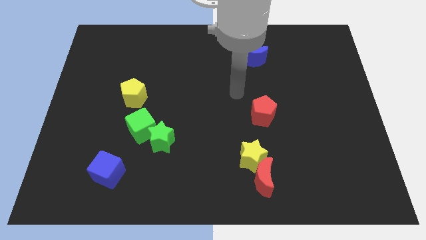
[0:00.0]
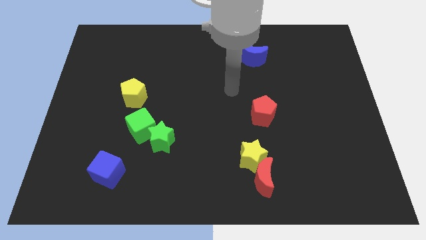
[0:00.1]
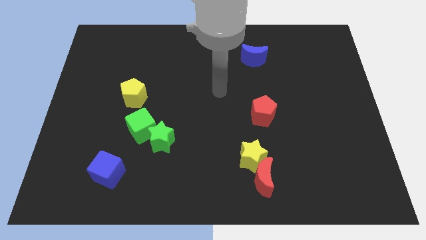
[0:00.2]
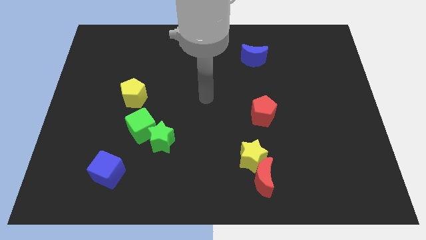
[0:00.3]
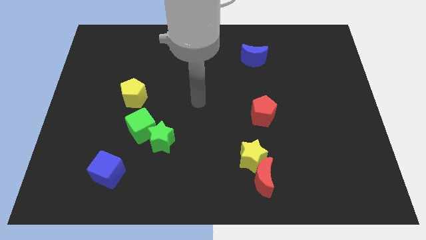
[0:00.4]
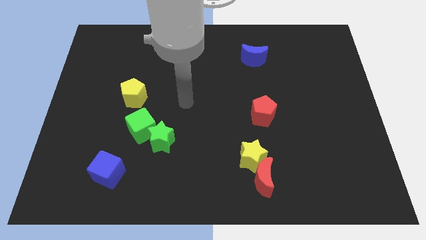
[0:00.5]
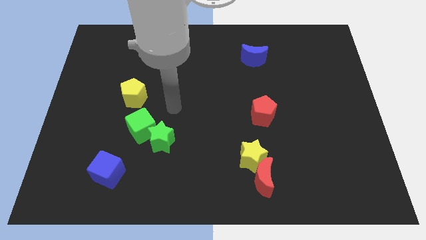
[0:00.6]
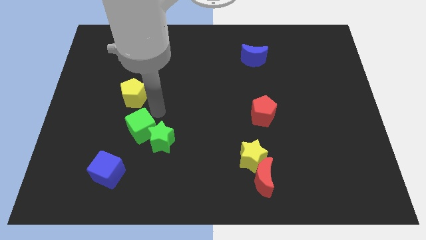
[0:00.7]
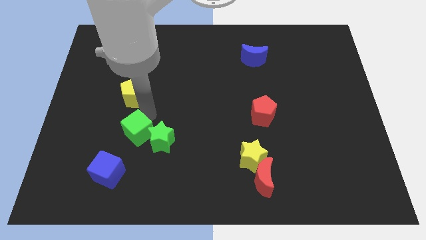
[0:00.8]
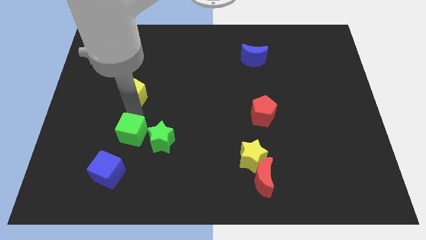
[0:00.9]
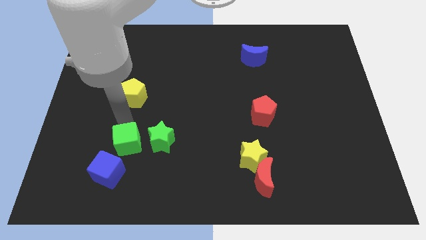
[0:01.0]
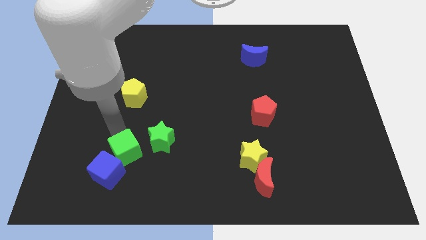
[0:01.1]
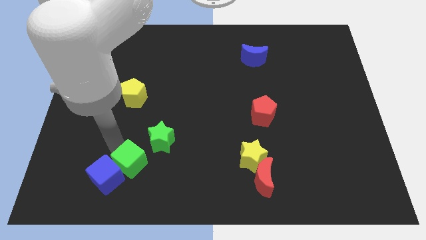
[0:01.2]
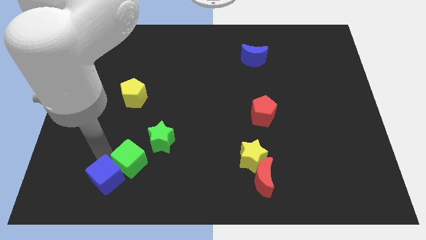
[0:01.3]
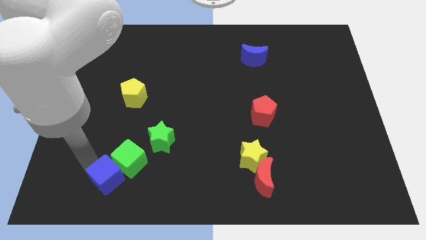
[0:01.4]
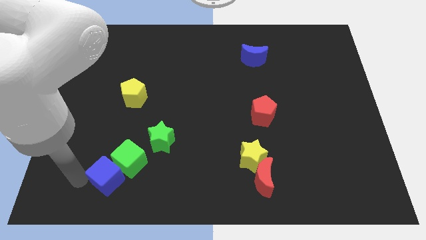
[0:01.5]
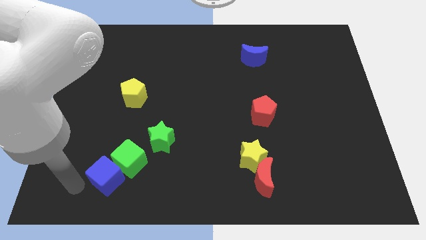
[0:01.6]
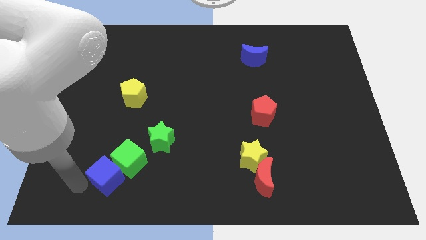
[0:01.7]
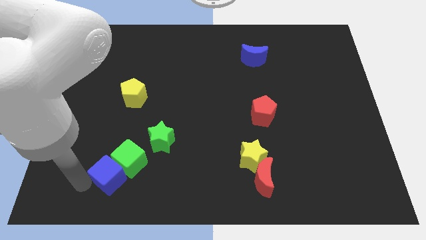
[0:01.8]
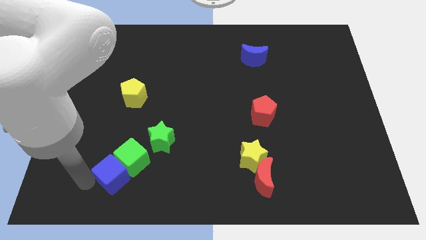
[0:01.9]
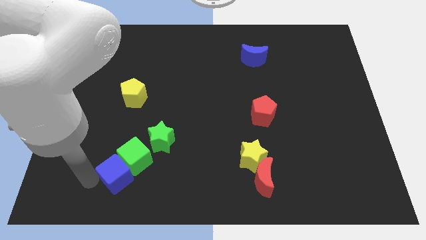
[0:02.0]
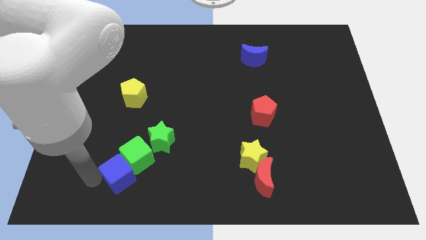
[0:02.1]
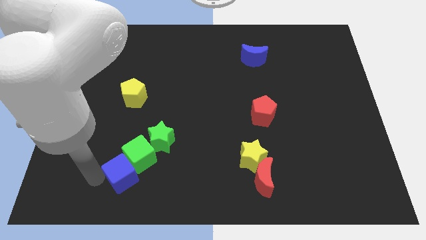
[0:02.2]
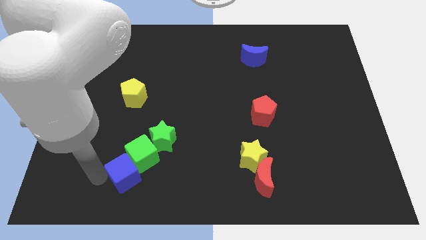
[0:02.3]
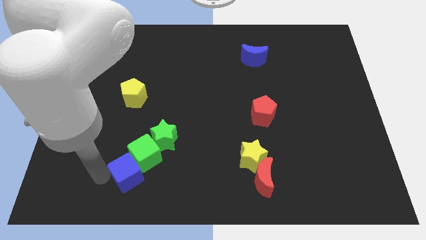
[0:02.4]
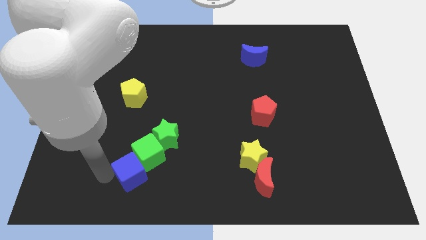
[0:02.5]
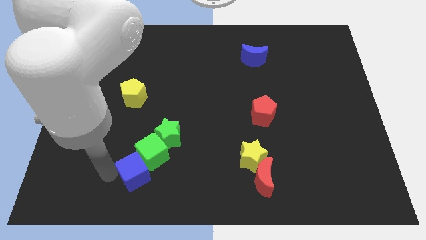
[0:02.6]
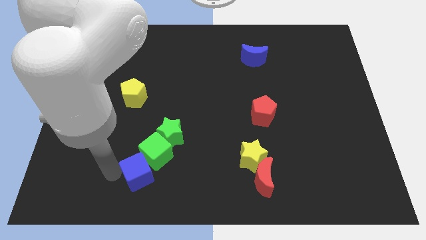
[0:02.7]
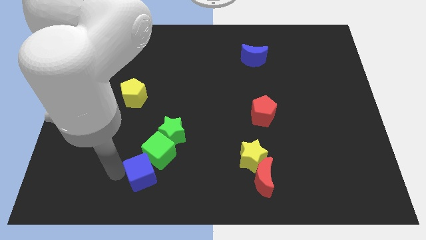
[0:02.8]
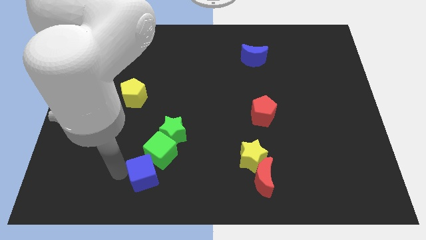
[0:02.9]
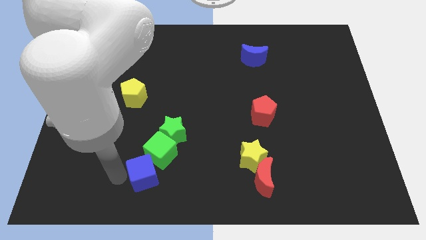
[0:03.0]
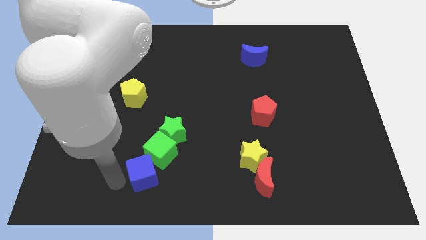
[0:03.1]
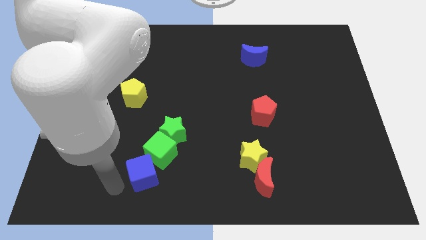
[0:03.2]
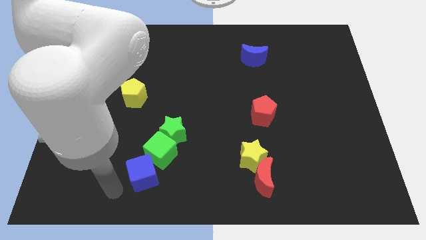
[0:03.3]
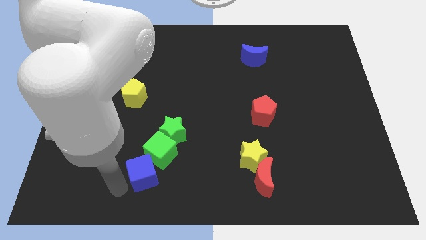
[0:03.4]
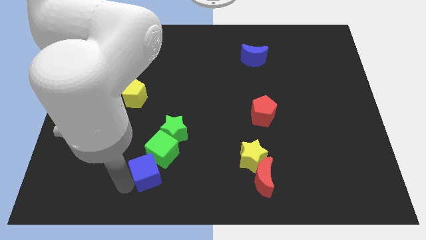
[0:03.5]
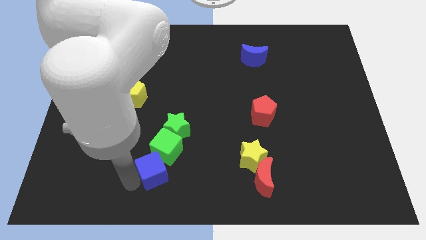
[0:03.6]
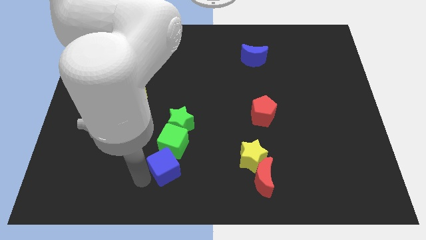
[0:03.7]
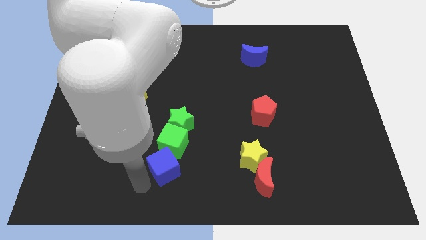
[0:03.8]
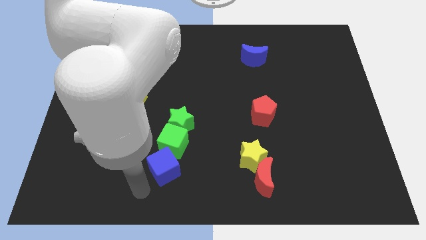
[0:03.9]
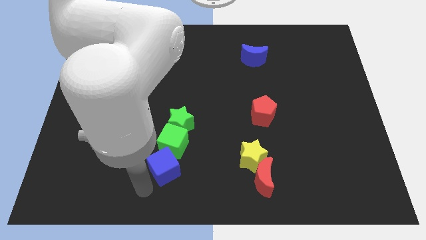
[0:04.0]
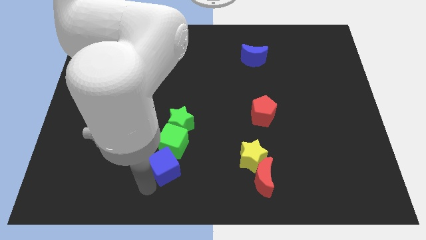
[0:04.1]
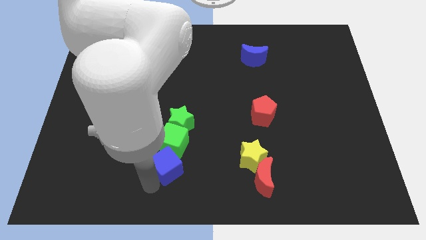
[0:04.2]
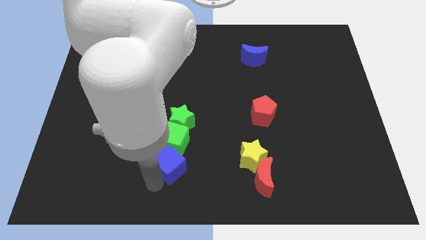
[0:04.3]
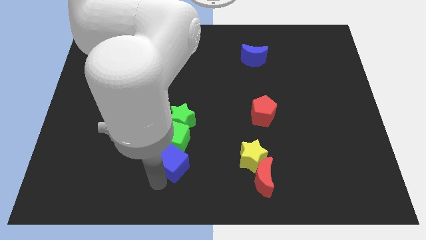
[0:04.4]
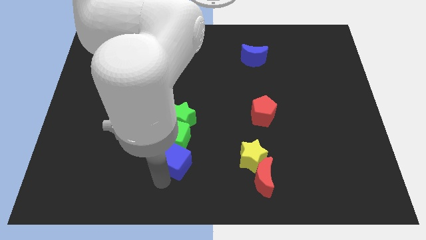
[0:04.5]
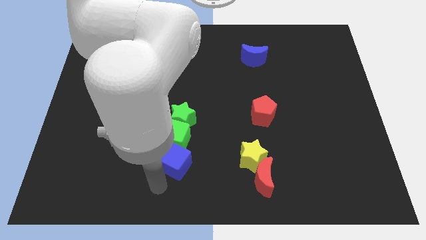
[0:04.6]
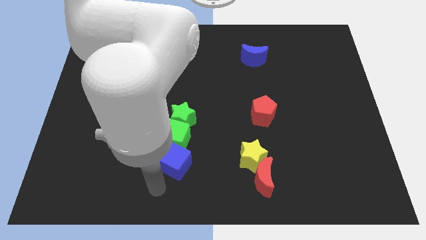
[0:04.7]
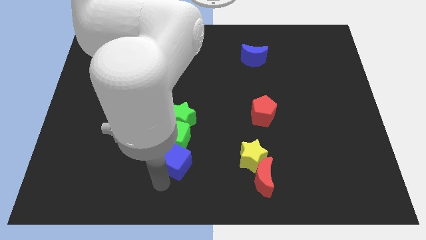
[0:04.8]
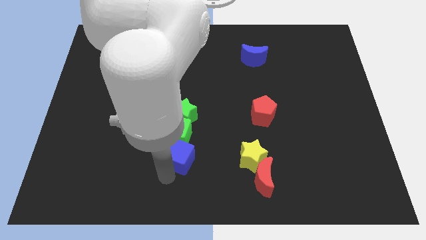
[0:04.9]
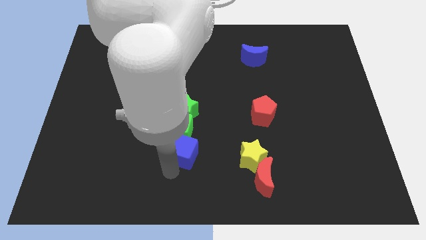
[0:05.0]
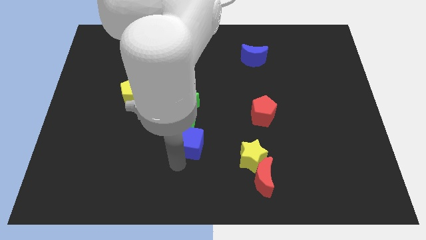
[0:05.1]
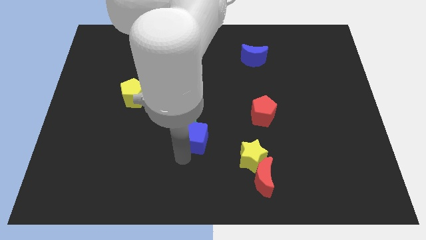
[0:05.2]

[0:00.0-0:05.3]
push the blue cube to the center
